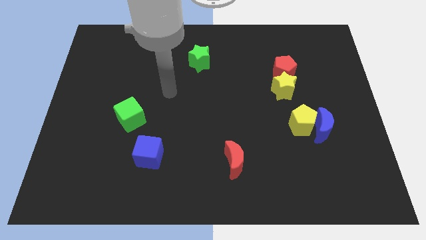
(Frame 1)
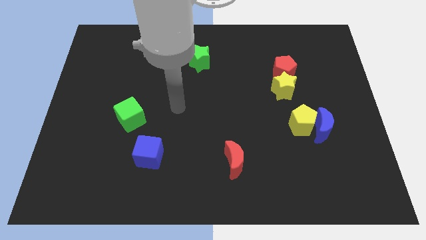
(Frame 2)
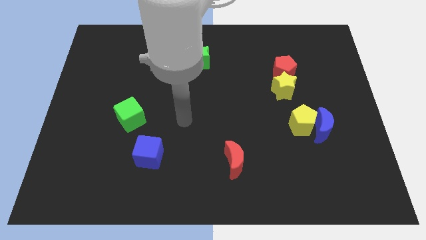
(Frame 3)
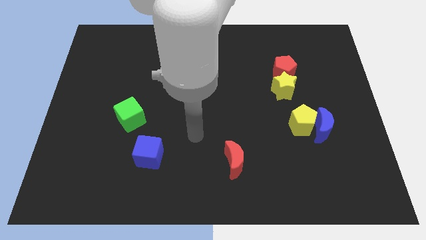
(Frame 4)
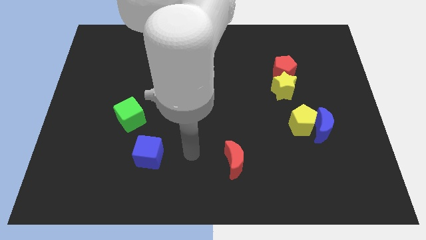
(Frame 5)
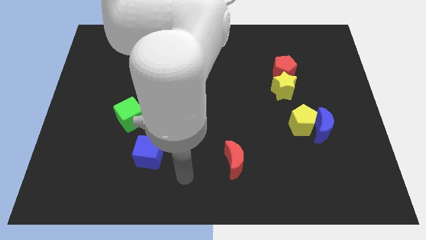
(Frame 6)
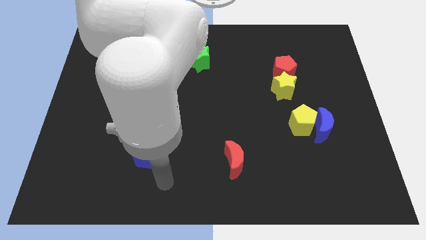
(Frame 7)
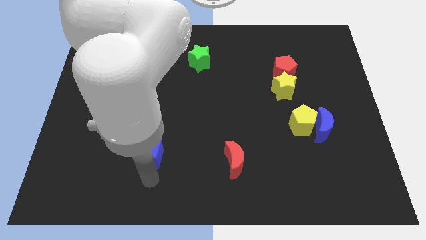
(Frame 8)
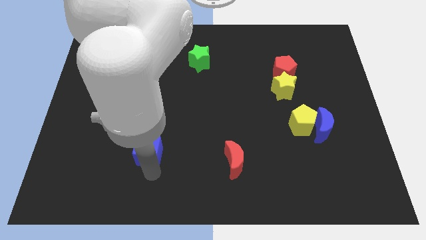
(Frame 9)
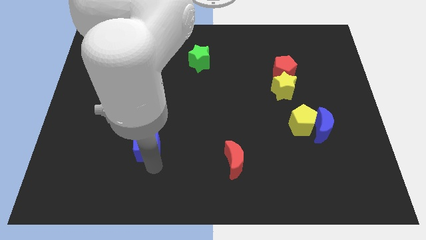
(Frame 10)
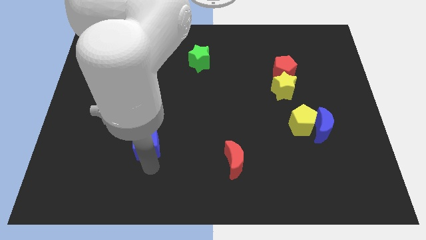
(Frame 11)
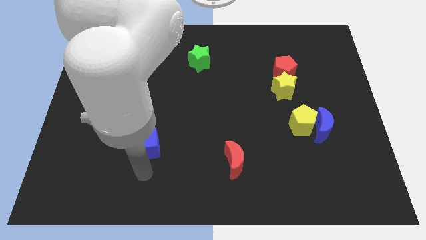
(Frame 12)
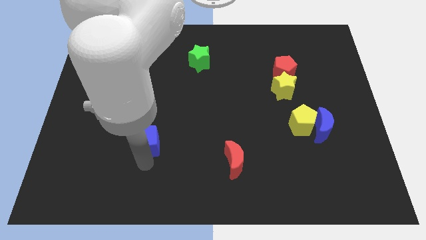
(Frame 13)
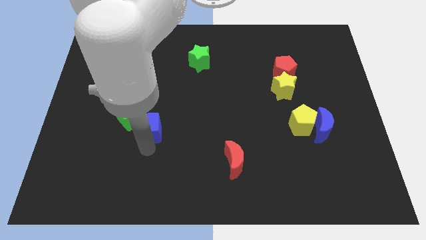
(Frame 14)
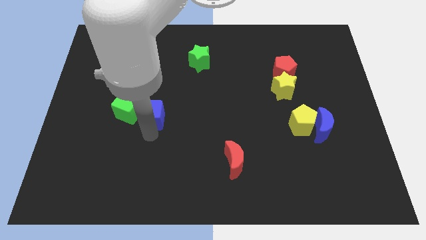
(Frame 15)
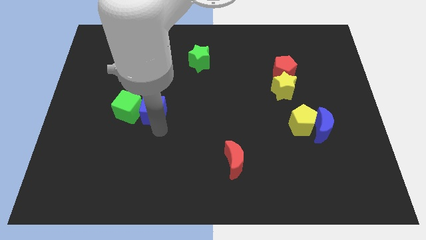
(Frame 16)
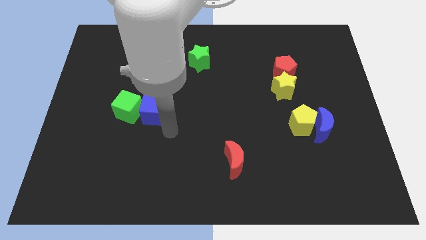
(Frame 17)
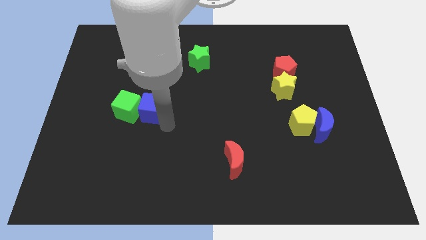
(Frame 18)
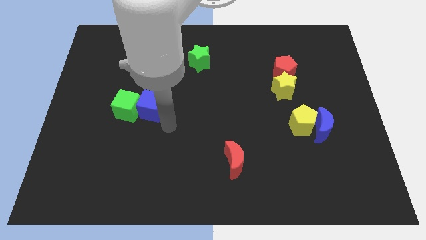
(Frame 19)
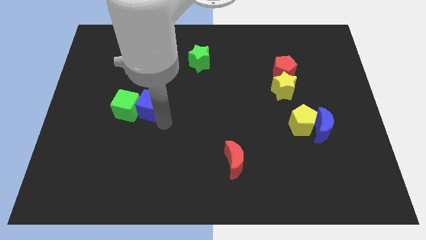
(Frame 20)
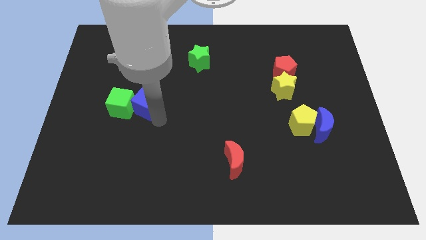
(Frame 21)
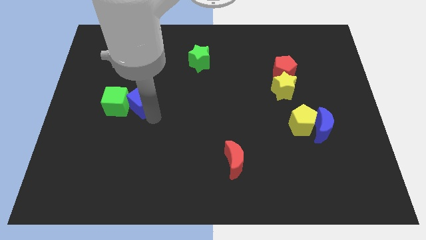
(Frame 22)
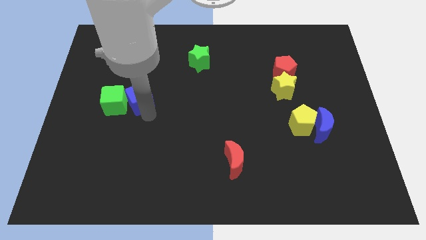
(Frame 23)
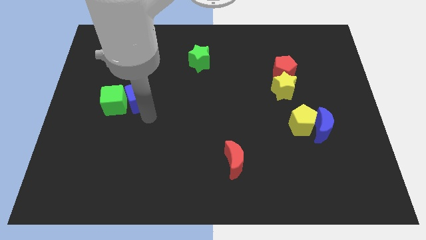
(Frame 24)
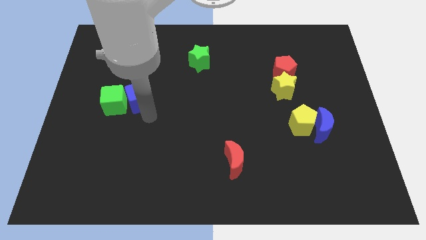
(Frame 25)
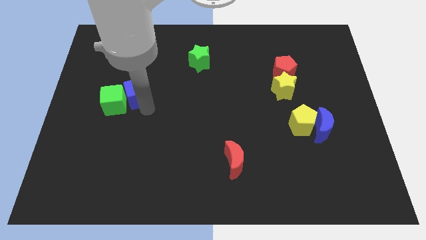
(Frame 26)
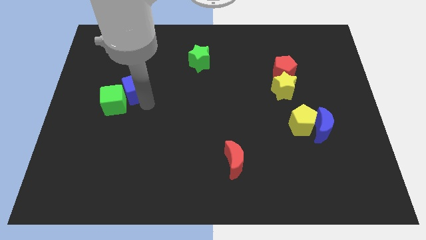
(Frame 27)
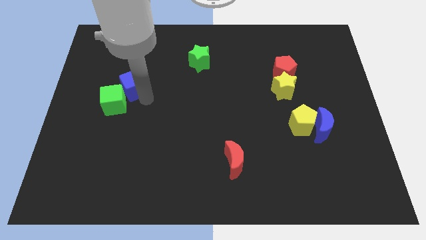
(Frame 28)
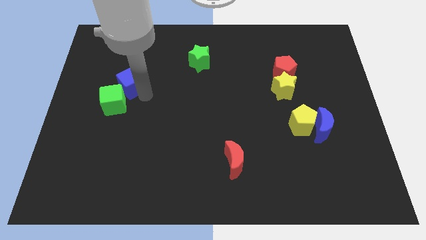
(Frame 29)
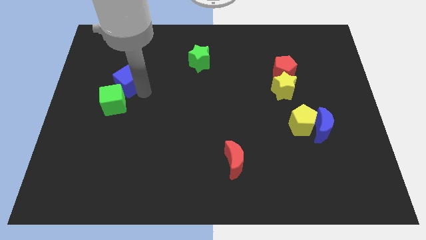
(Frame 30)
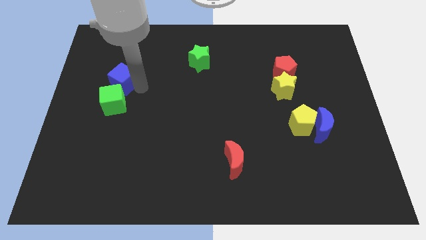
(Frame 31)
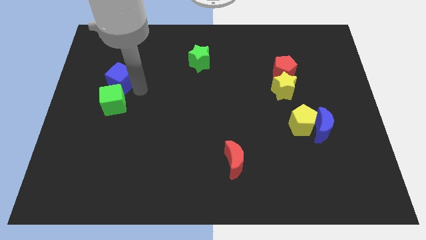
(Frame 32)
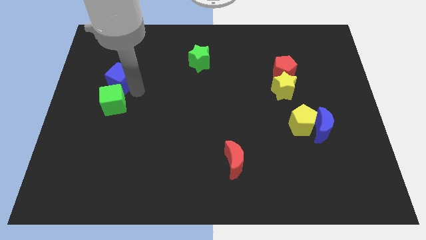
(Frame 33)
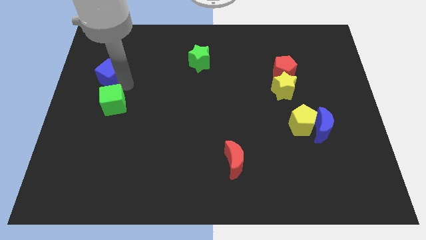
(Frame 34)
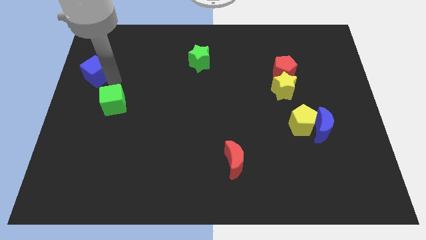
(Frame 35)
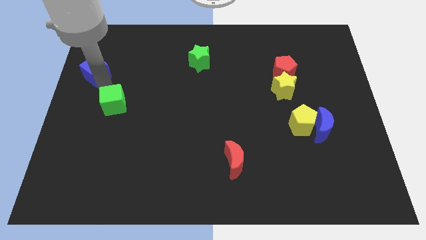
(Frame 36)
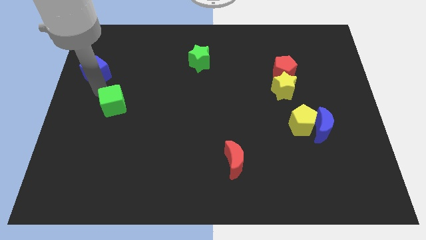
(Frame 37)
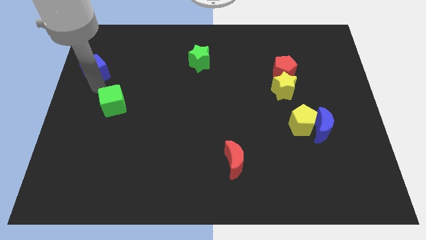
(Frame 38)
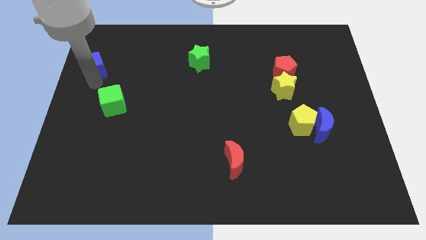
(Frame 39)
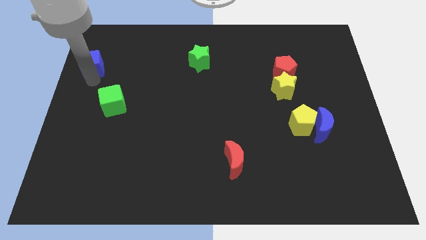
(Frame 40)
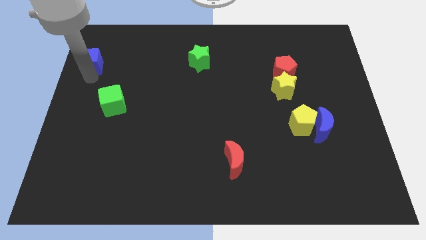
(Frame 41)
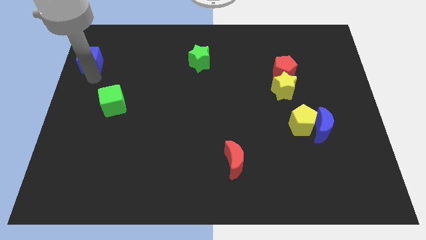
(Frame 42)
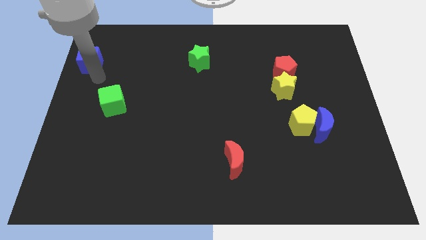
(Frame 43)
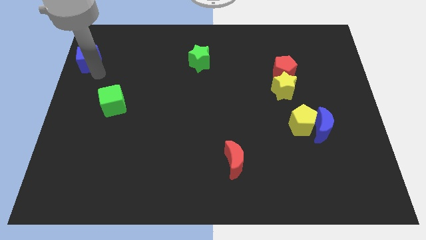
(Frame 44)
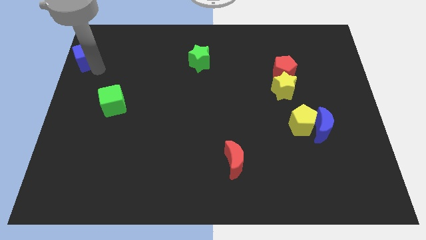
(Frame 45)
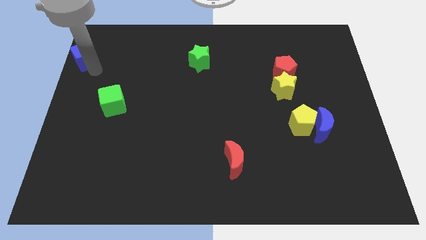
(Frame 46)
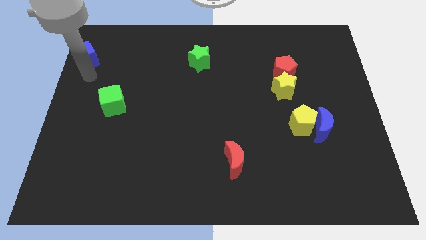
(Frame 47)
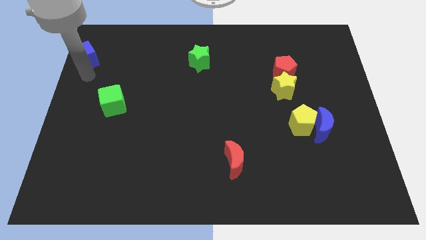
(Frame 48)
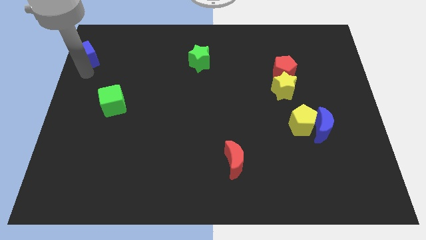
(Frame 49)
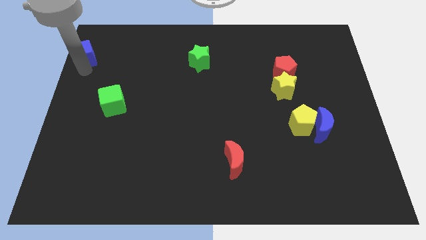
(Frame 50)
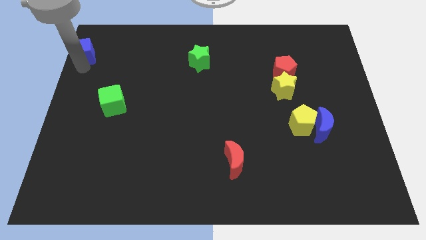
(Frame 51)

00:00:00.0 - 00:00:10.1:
put the blue cube to the top left

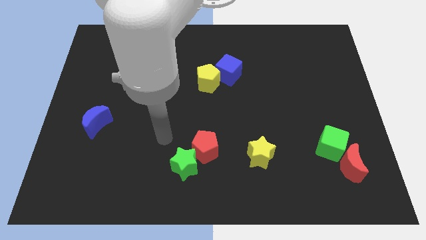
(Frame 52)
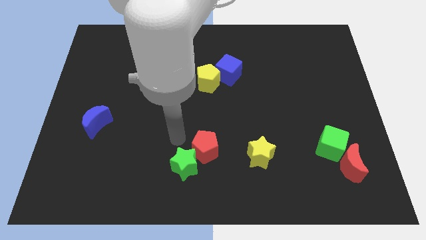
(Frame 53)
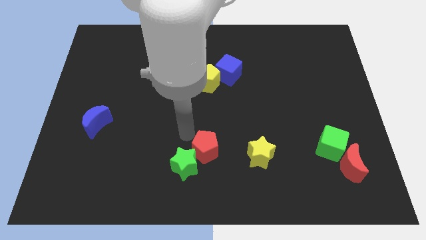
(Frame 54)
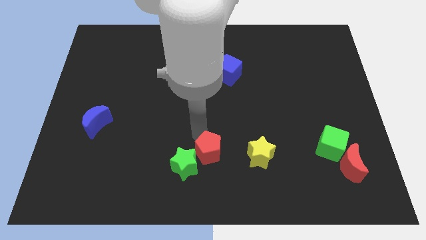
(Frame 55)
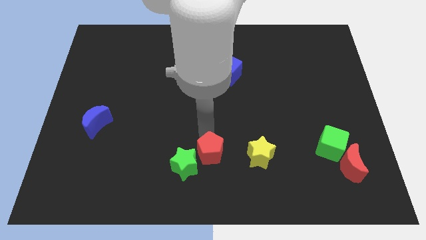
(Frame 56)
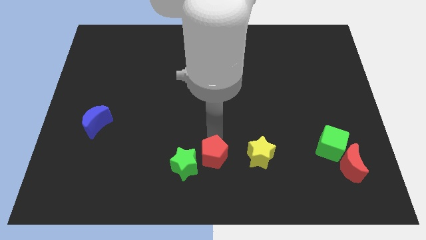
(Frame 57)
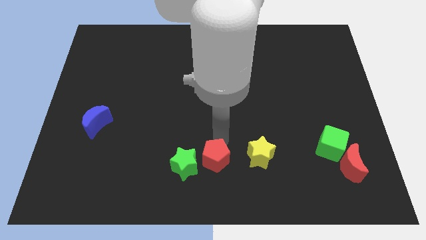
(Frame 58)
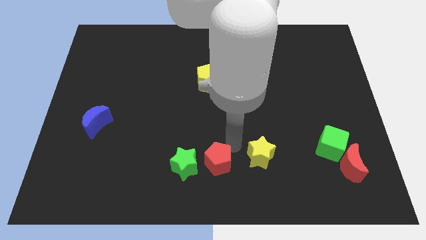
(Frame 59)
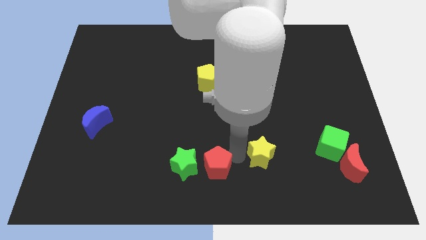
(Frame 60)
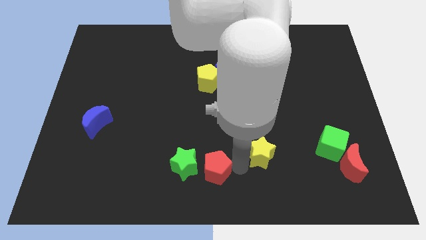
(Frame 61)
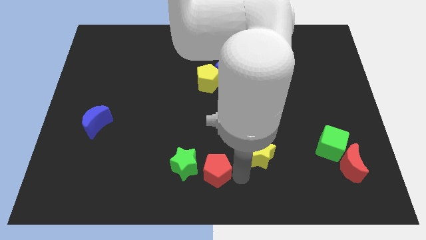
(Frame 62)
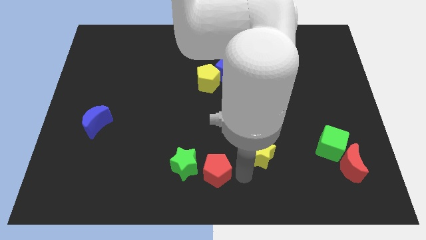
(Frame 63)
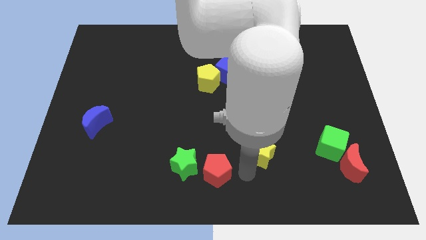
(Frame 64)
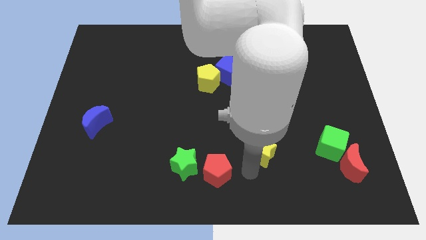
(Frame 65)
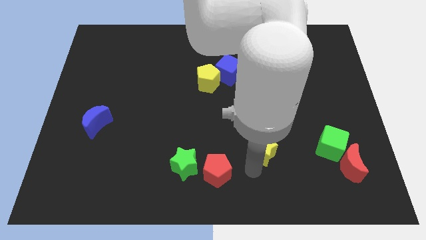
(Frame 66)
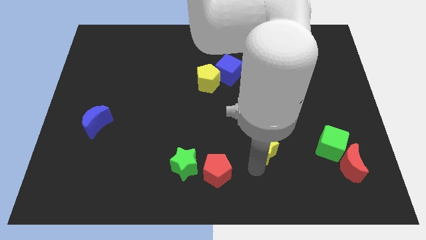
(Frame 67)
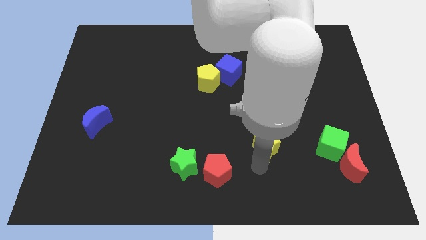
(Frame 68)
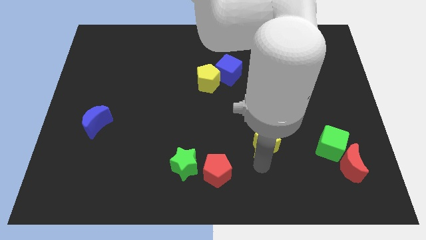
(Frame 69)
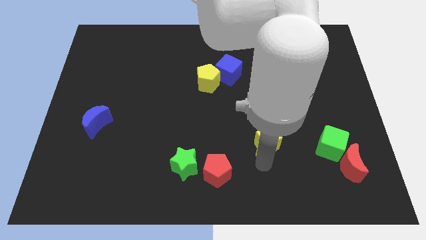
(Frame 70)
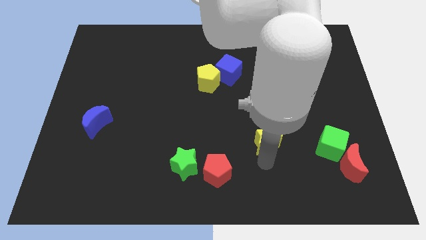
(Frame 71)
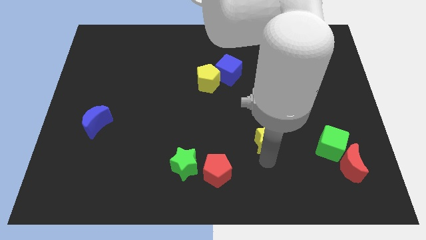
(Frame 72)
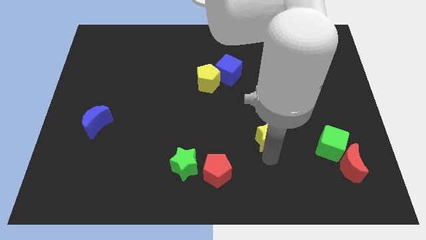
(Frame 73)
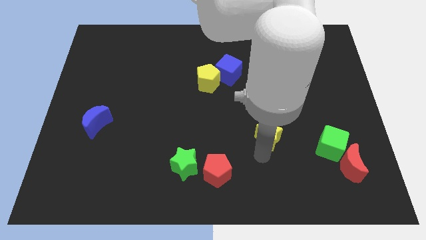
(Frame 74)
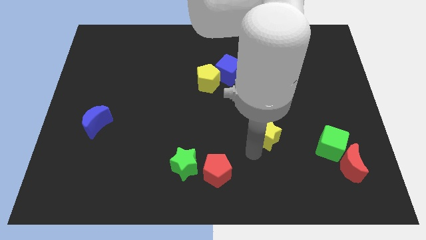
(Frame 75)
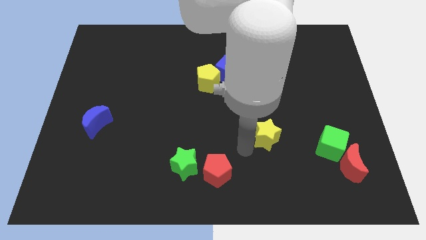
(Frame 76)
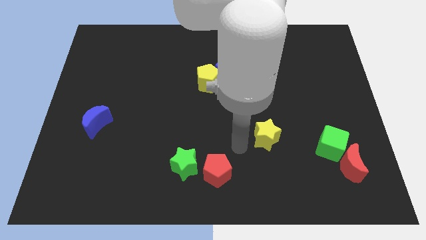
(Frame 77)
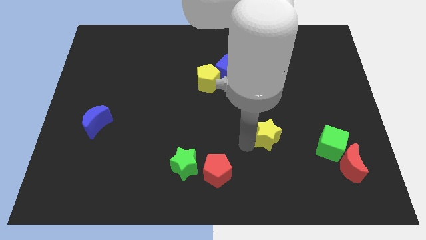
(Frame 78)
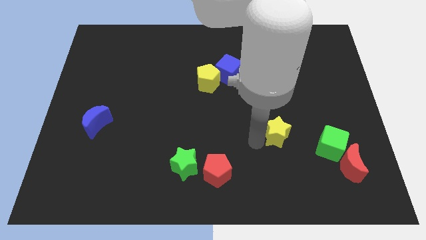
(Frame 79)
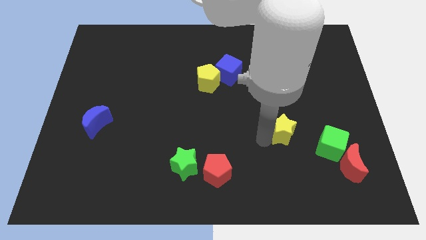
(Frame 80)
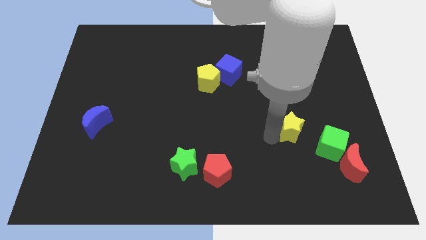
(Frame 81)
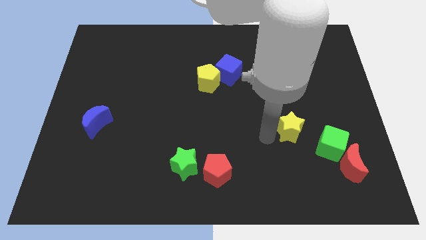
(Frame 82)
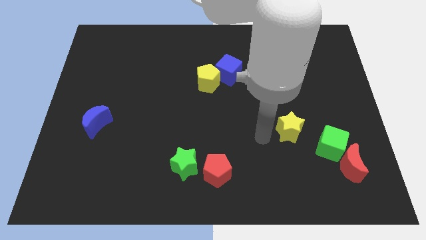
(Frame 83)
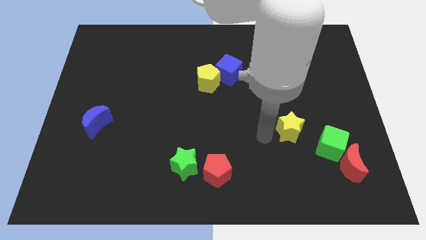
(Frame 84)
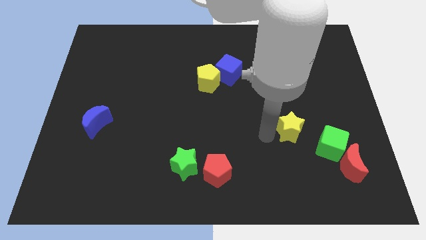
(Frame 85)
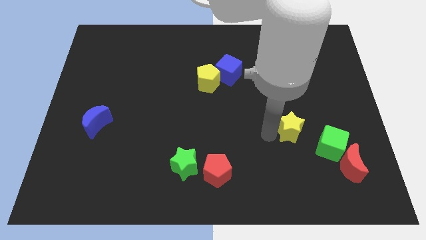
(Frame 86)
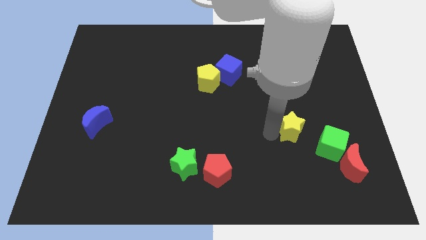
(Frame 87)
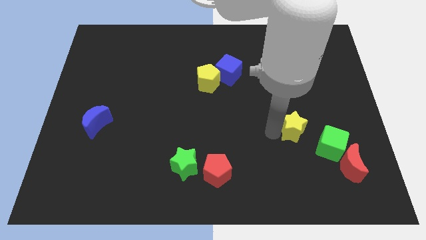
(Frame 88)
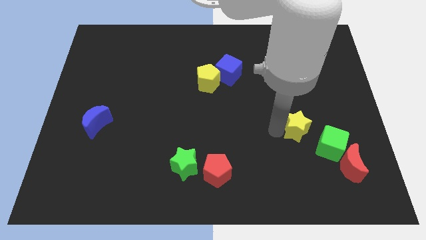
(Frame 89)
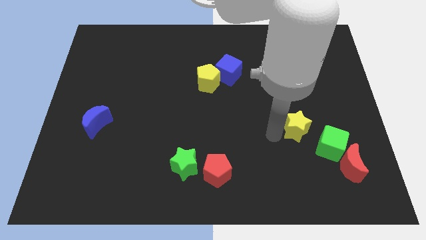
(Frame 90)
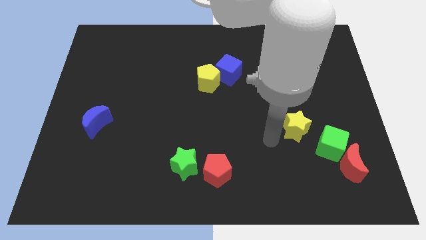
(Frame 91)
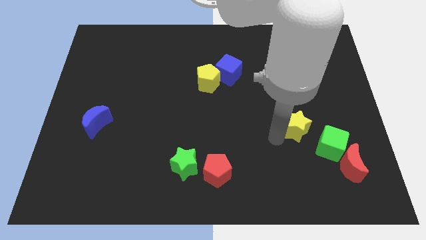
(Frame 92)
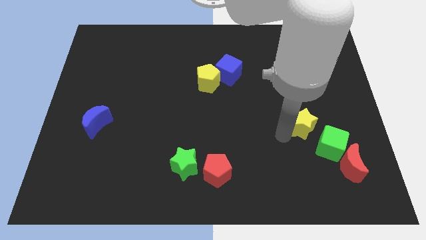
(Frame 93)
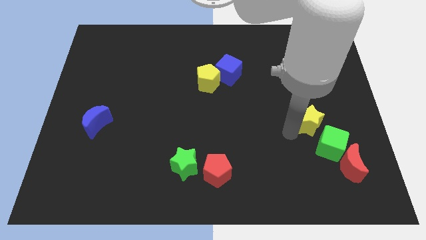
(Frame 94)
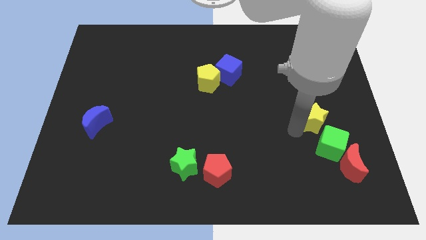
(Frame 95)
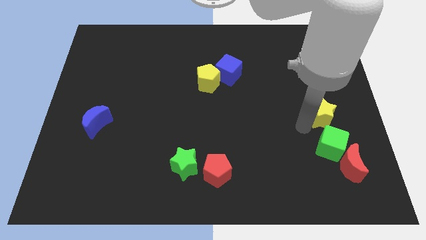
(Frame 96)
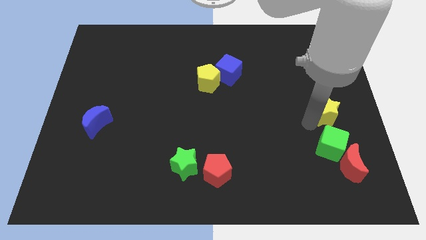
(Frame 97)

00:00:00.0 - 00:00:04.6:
push the yellow star to the center right
